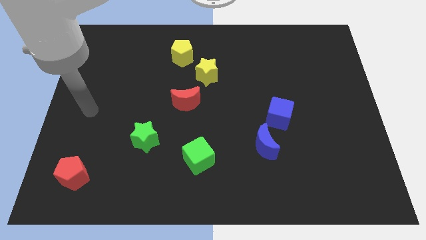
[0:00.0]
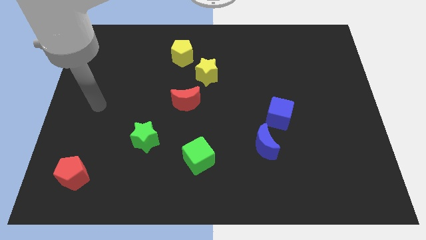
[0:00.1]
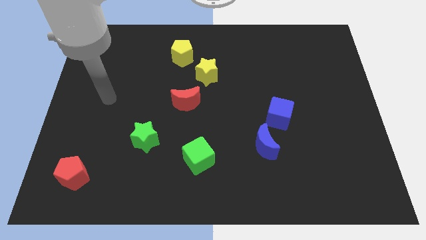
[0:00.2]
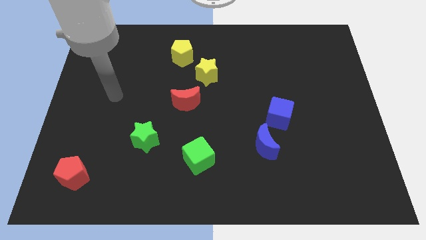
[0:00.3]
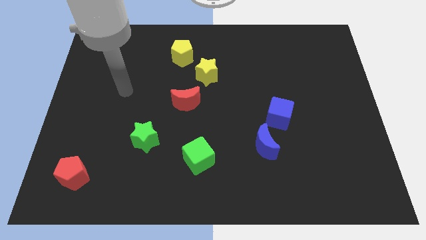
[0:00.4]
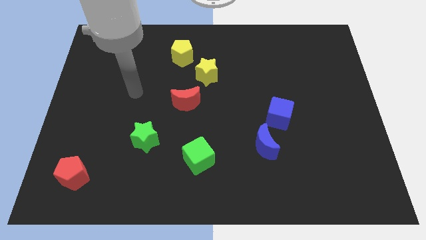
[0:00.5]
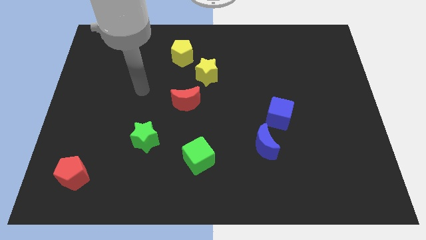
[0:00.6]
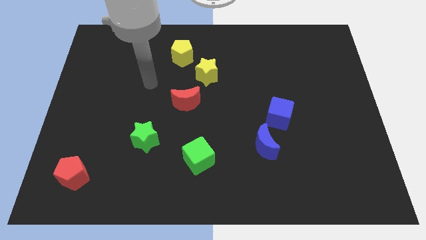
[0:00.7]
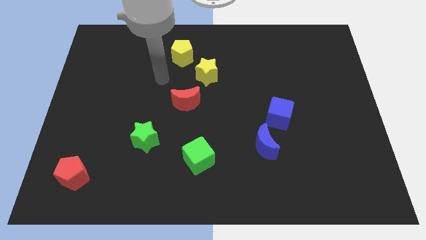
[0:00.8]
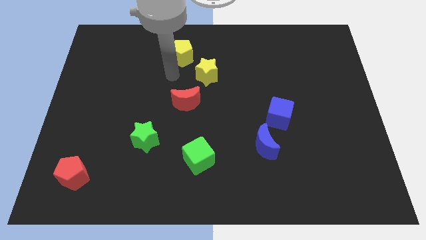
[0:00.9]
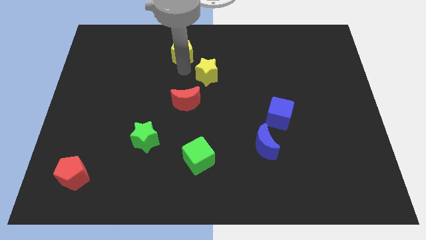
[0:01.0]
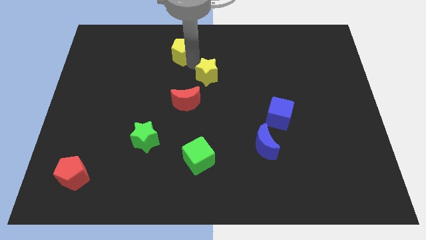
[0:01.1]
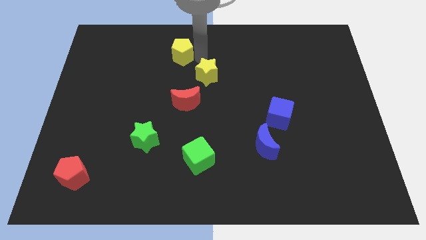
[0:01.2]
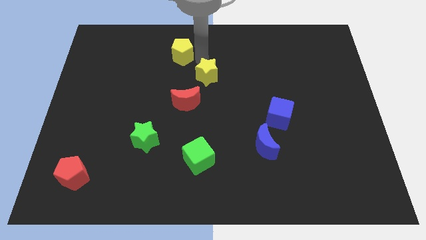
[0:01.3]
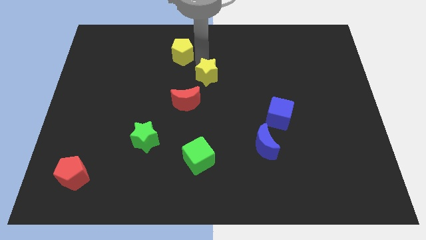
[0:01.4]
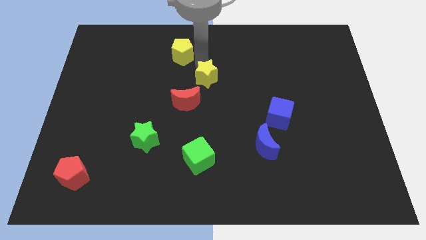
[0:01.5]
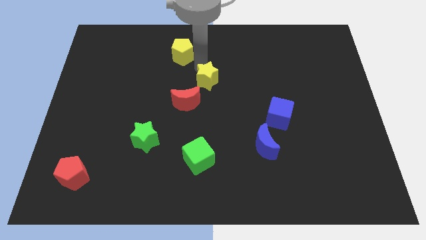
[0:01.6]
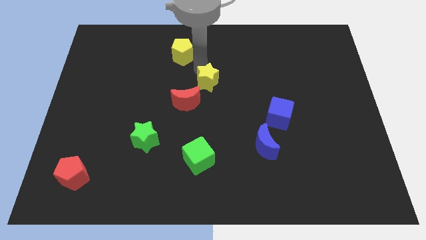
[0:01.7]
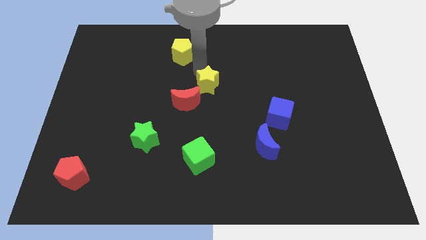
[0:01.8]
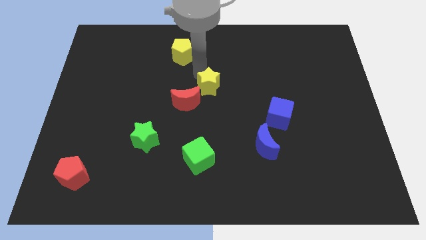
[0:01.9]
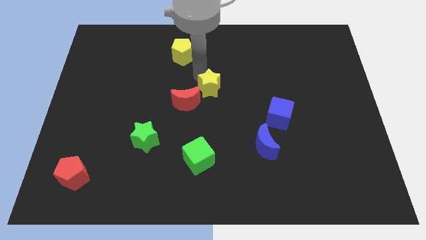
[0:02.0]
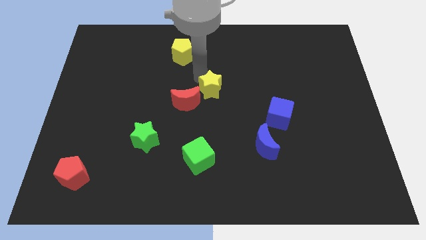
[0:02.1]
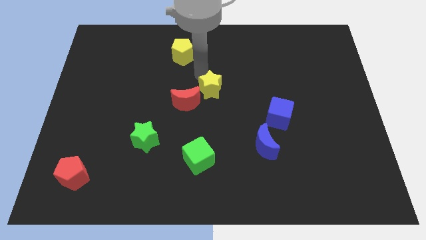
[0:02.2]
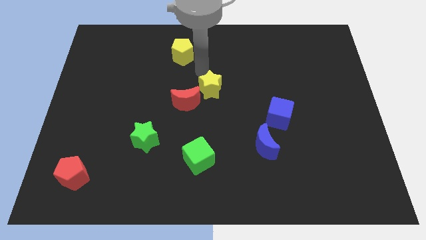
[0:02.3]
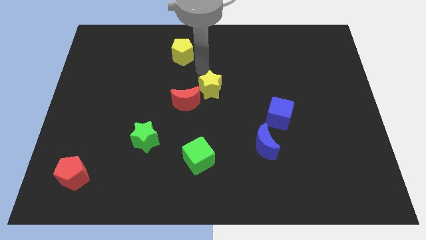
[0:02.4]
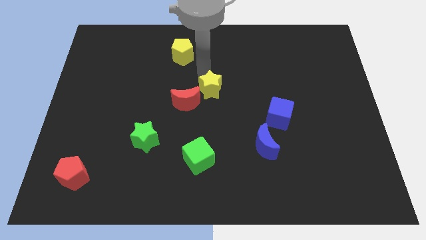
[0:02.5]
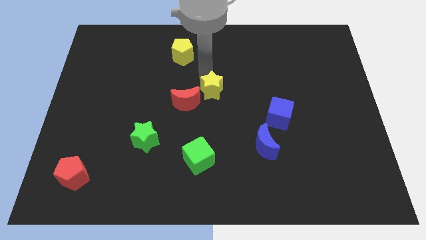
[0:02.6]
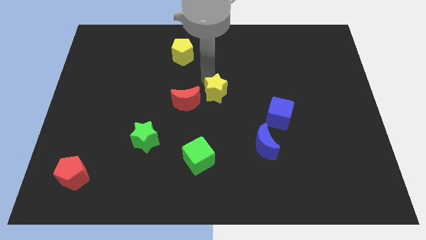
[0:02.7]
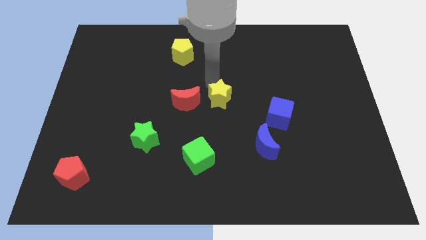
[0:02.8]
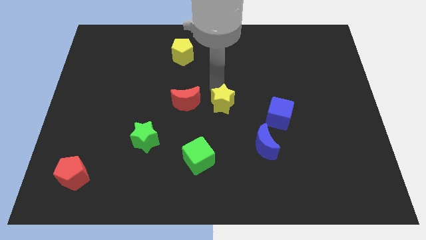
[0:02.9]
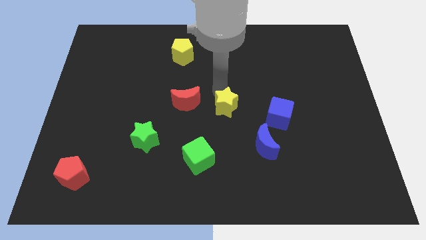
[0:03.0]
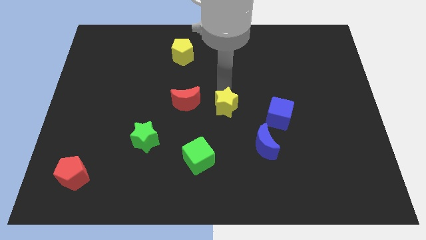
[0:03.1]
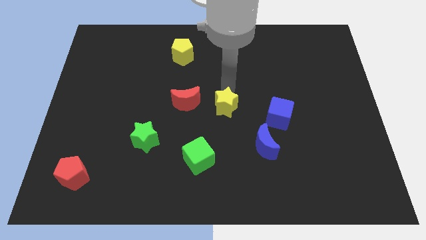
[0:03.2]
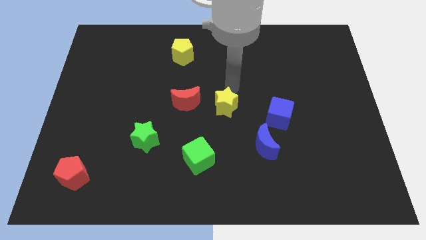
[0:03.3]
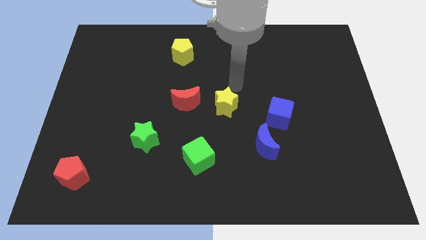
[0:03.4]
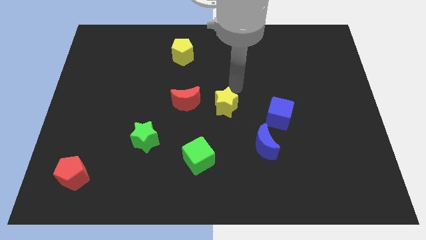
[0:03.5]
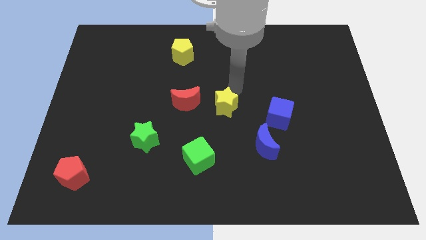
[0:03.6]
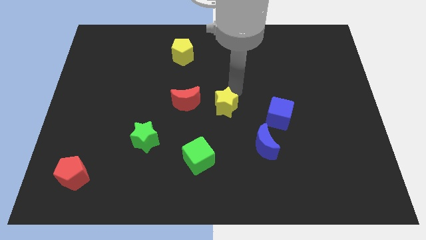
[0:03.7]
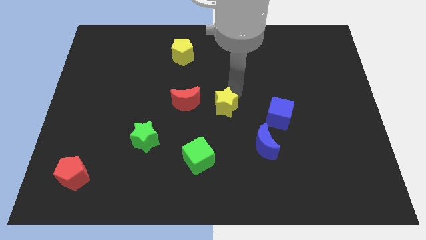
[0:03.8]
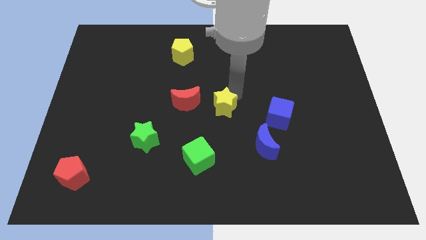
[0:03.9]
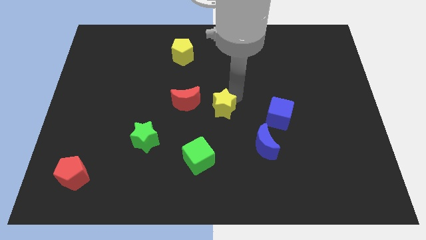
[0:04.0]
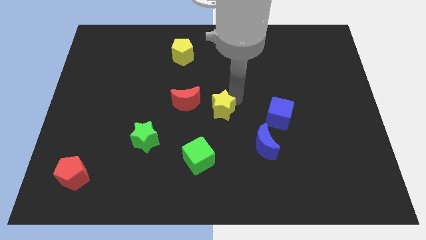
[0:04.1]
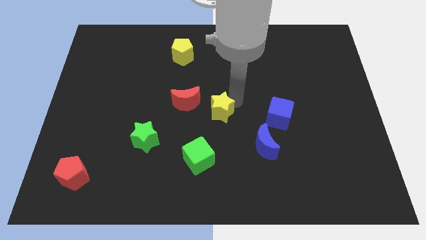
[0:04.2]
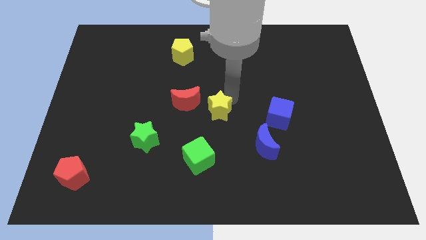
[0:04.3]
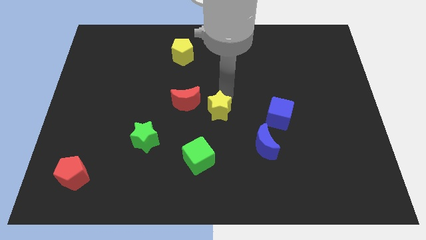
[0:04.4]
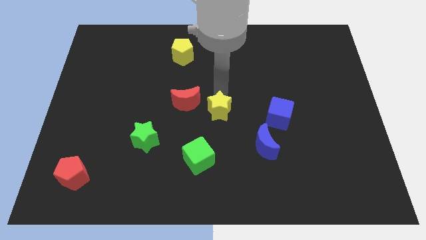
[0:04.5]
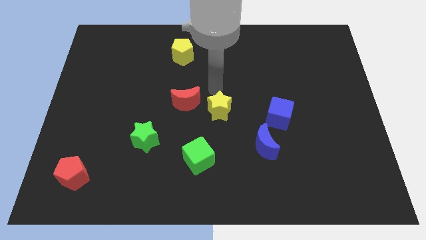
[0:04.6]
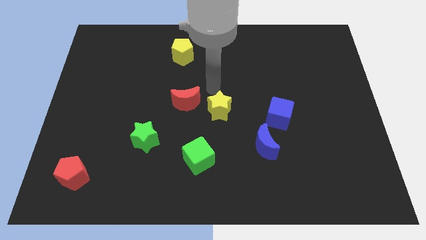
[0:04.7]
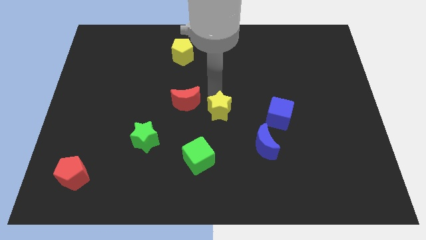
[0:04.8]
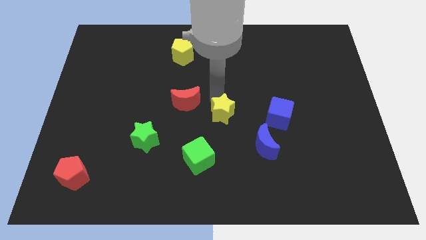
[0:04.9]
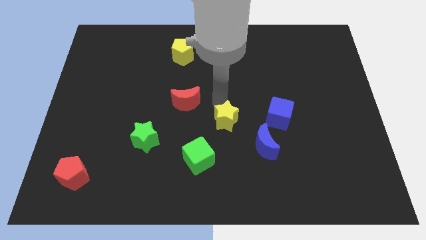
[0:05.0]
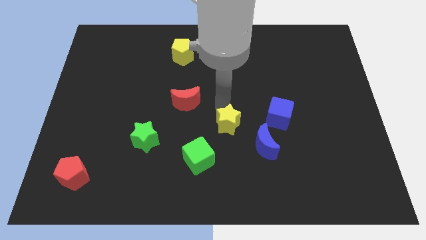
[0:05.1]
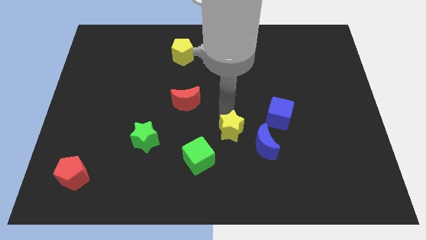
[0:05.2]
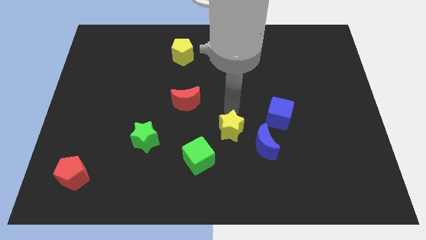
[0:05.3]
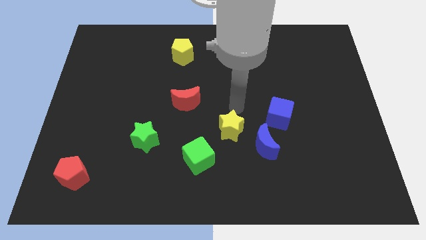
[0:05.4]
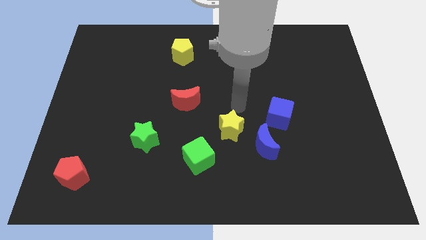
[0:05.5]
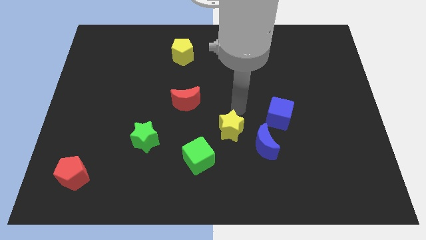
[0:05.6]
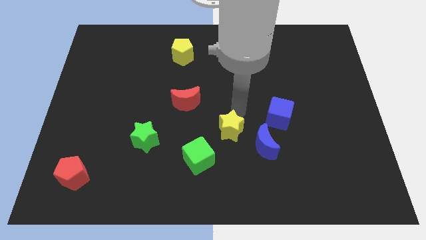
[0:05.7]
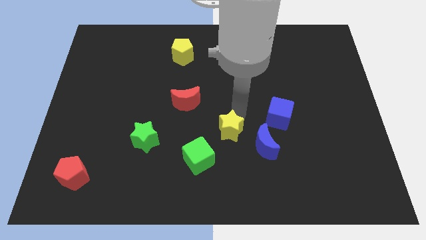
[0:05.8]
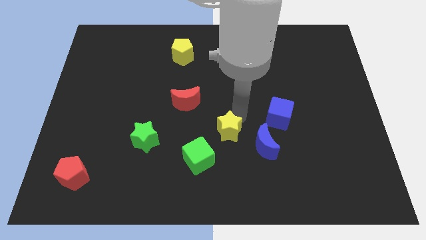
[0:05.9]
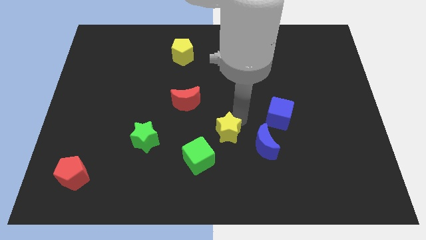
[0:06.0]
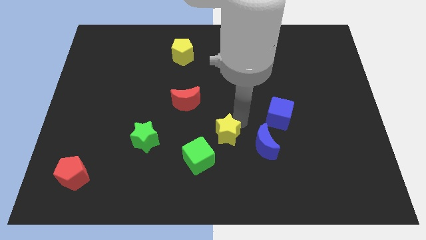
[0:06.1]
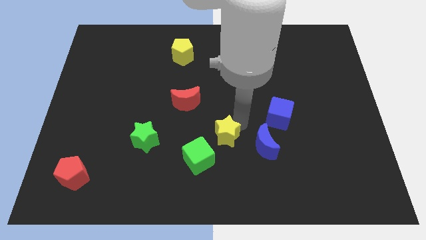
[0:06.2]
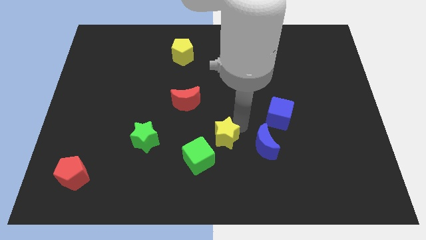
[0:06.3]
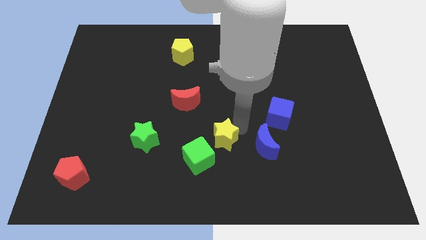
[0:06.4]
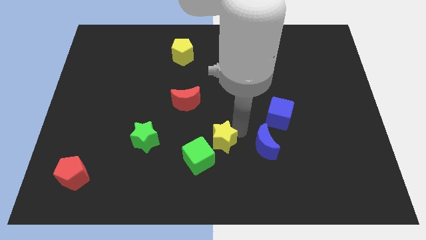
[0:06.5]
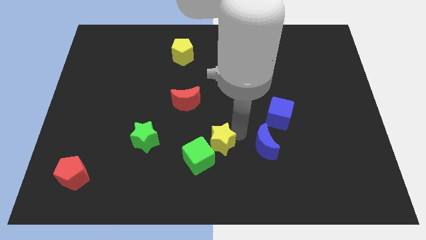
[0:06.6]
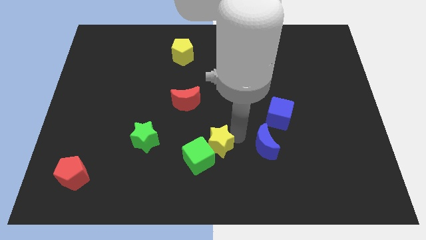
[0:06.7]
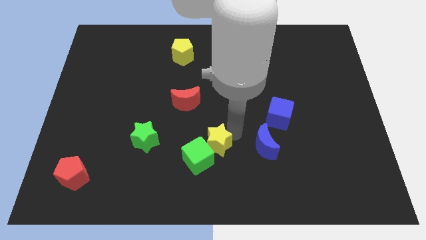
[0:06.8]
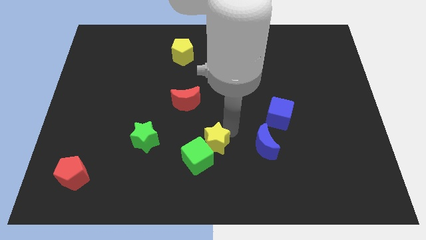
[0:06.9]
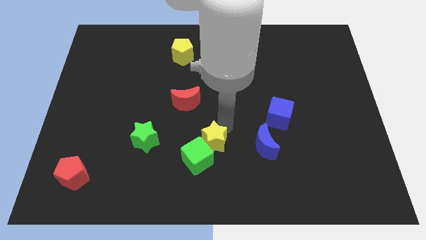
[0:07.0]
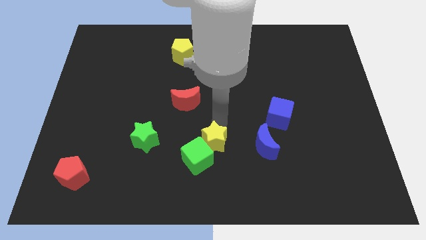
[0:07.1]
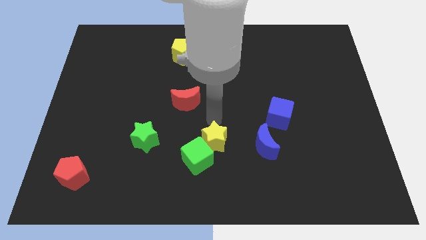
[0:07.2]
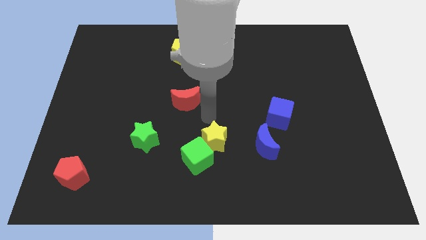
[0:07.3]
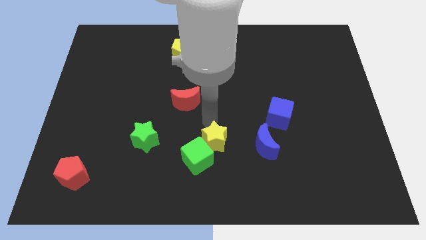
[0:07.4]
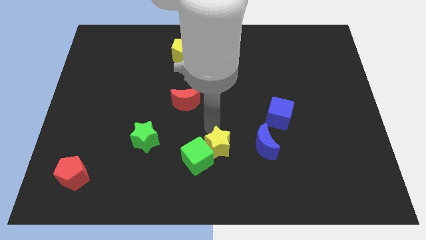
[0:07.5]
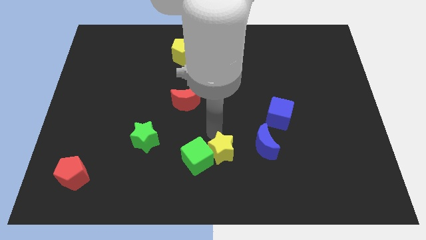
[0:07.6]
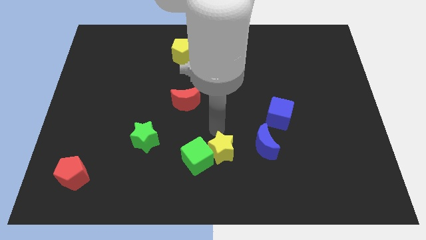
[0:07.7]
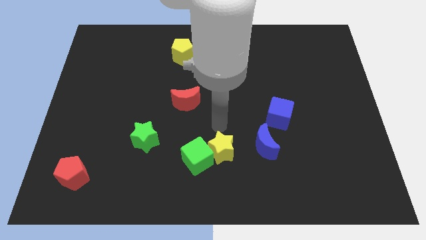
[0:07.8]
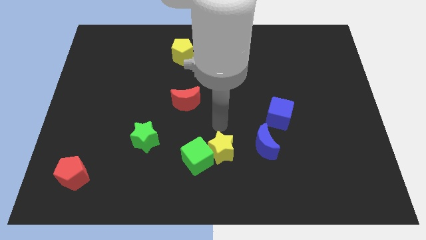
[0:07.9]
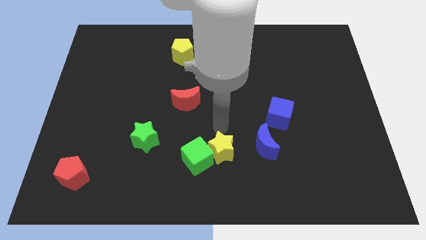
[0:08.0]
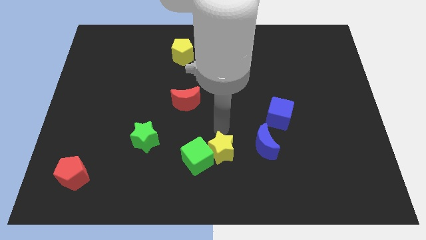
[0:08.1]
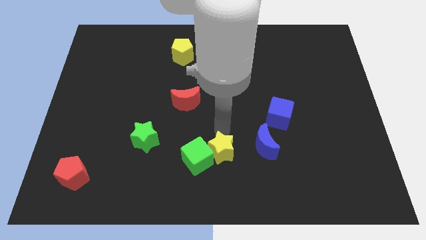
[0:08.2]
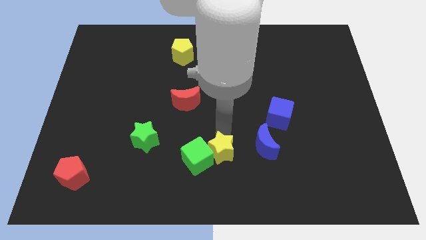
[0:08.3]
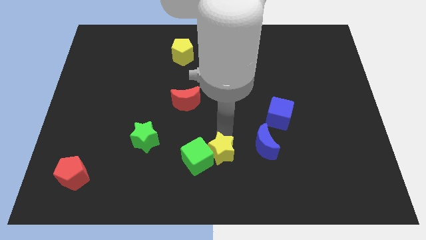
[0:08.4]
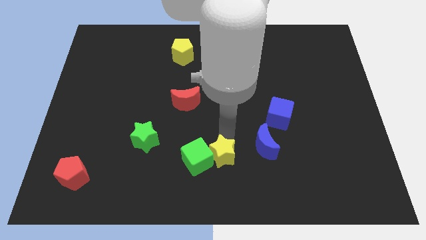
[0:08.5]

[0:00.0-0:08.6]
push the yellow star diagonally down and to the right of the green cube
